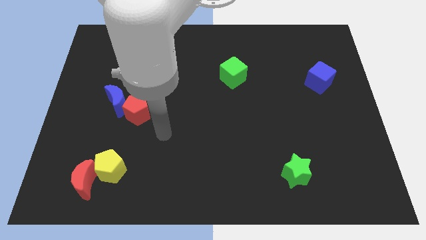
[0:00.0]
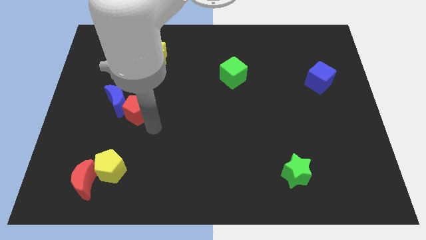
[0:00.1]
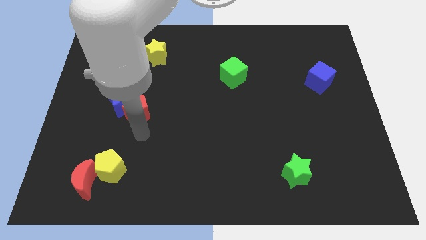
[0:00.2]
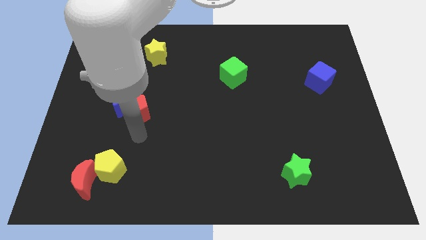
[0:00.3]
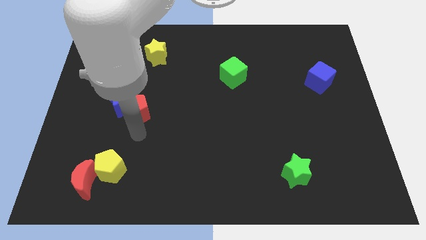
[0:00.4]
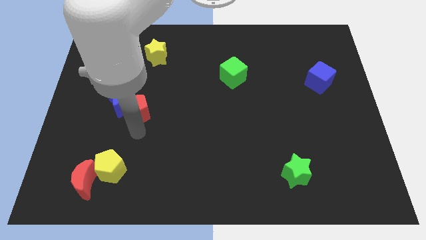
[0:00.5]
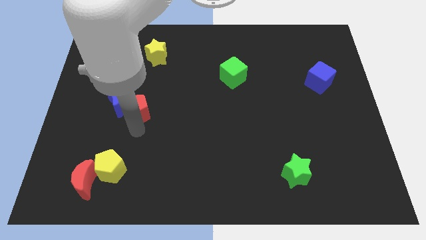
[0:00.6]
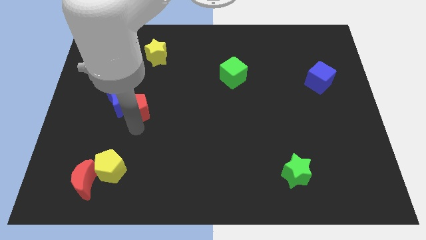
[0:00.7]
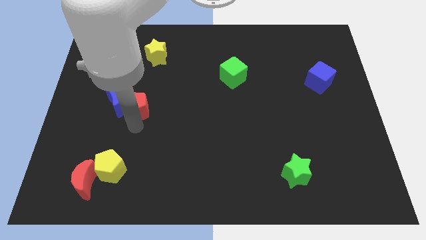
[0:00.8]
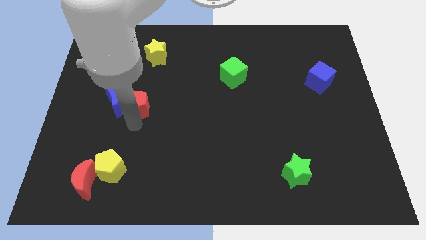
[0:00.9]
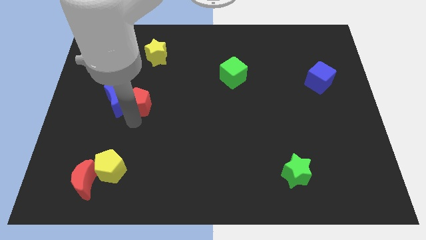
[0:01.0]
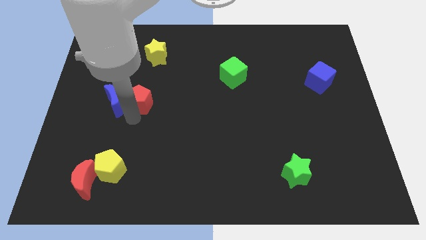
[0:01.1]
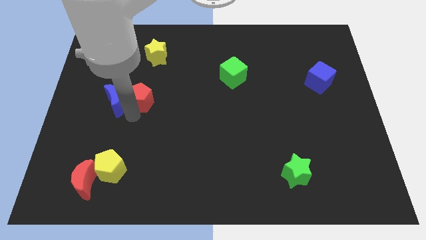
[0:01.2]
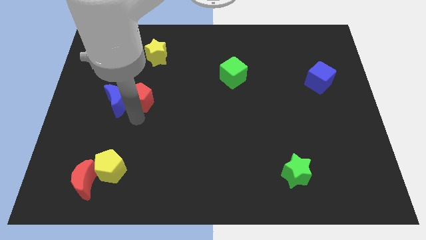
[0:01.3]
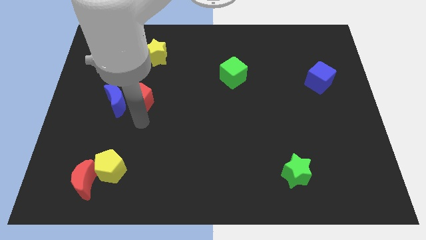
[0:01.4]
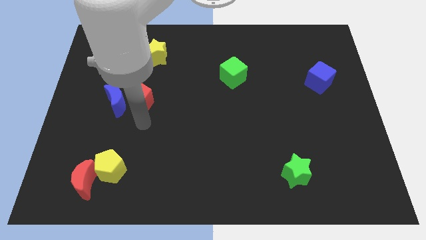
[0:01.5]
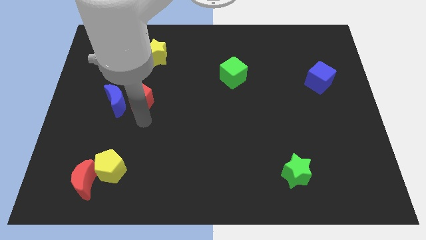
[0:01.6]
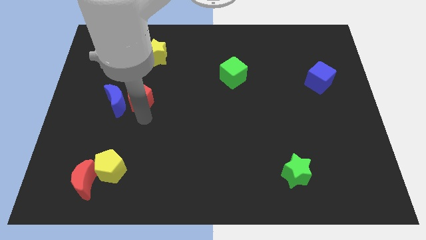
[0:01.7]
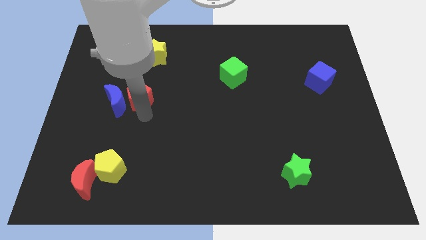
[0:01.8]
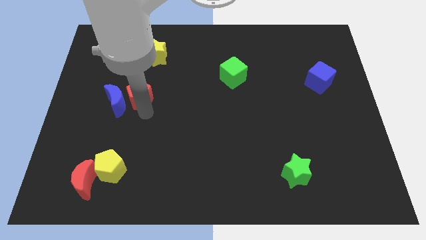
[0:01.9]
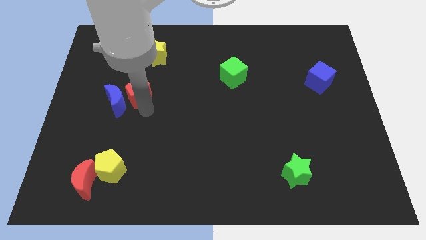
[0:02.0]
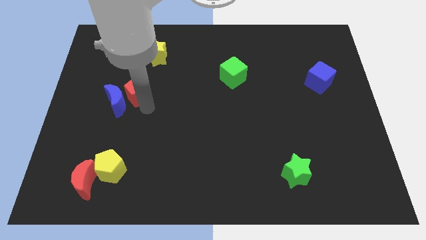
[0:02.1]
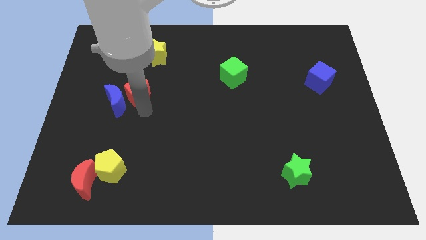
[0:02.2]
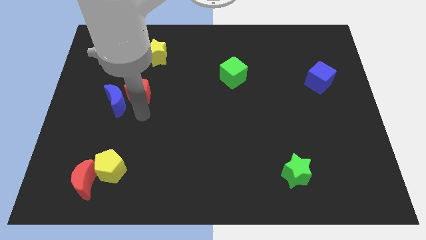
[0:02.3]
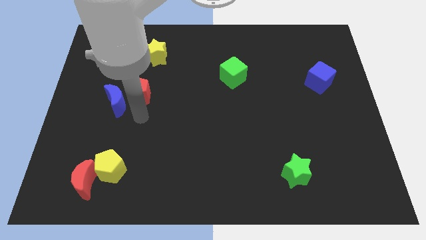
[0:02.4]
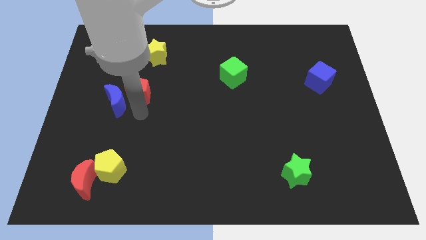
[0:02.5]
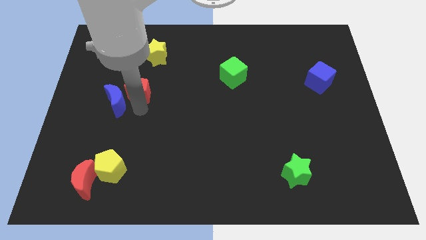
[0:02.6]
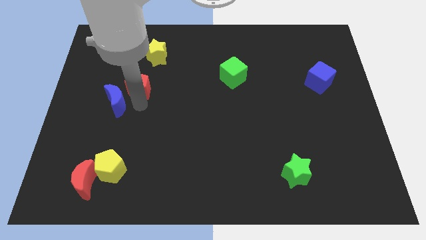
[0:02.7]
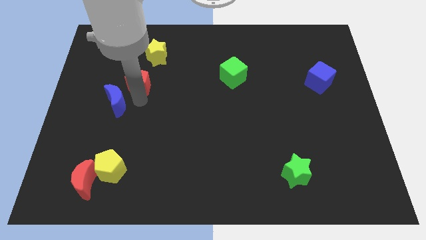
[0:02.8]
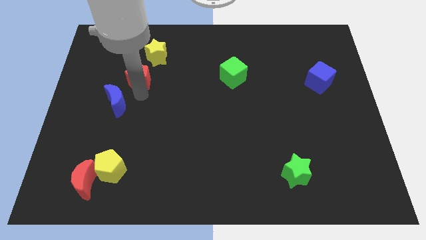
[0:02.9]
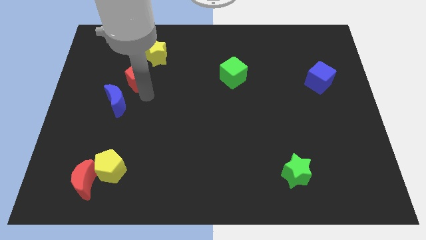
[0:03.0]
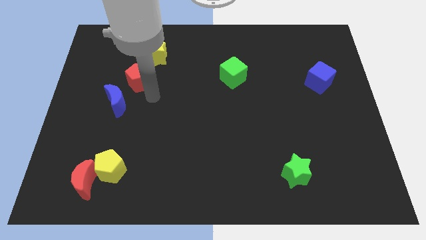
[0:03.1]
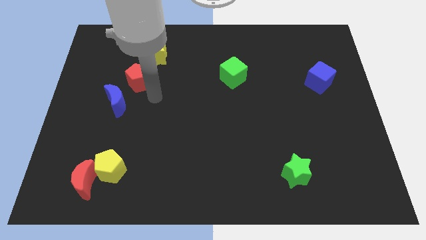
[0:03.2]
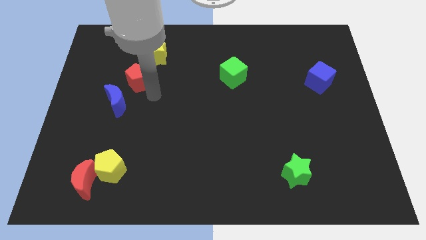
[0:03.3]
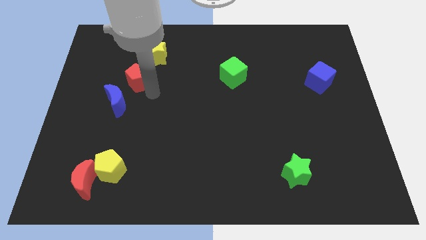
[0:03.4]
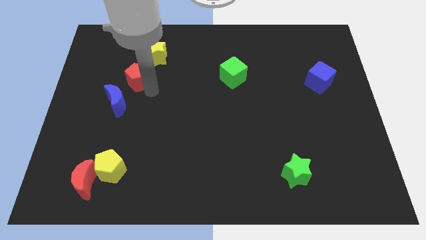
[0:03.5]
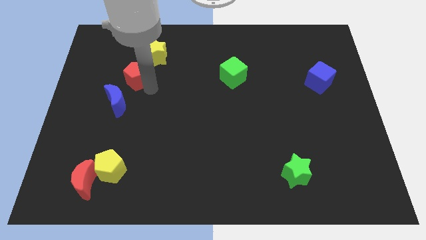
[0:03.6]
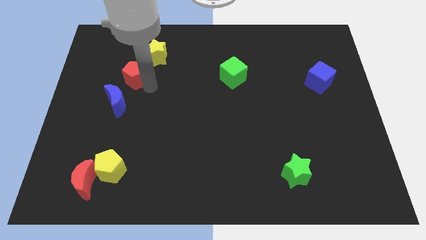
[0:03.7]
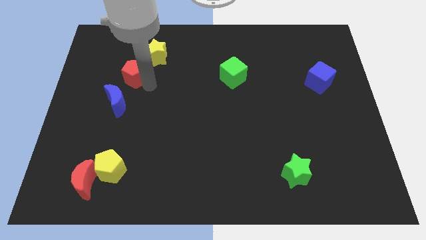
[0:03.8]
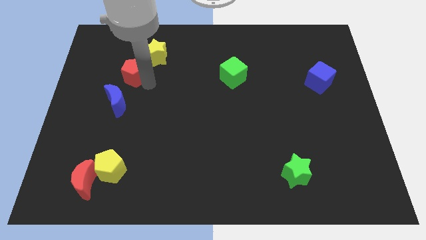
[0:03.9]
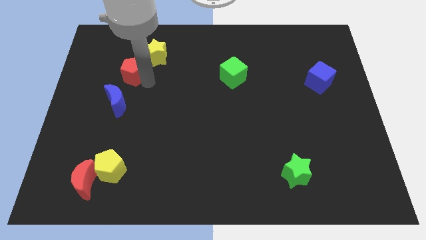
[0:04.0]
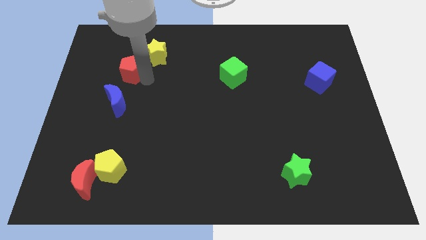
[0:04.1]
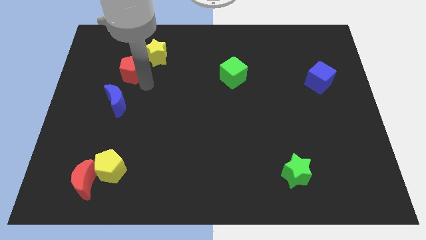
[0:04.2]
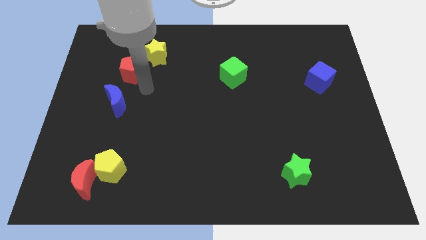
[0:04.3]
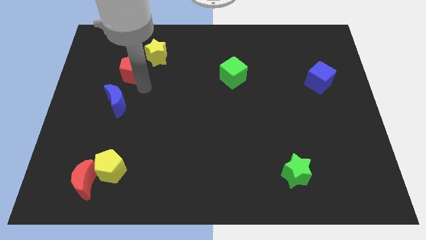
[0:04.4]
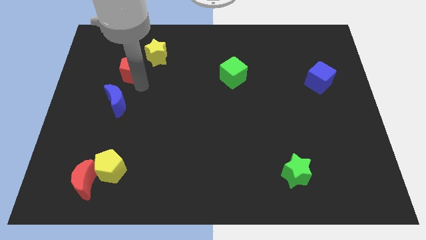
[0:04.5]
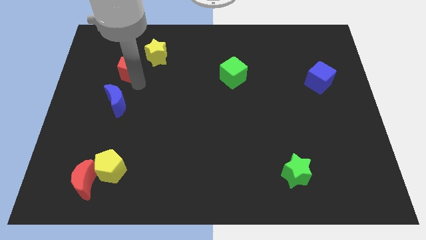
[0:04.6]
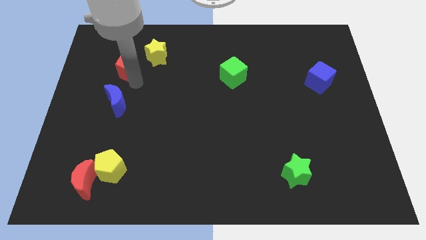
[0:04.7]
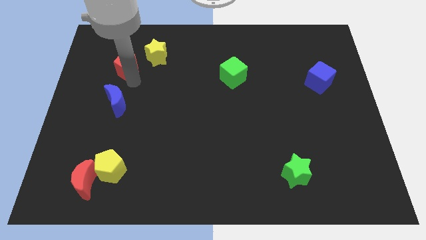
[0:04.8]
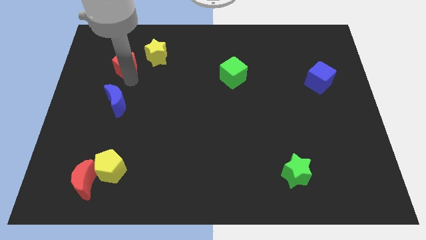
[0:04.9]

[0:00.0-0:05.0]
slide the red pentagon to the left of the yellow star

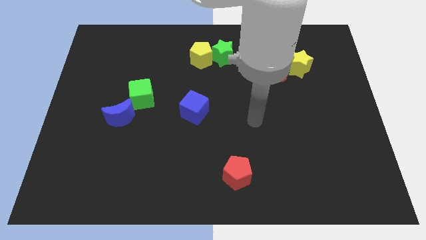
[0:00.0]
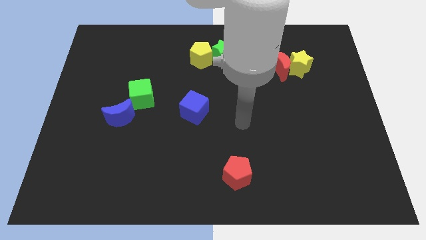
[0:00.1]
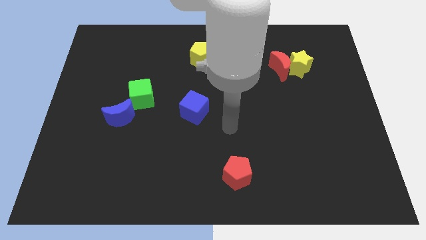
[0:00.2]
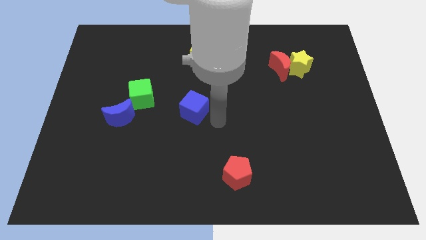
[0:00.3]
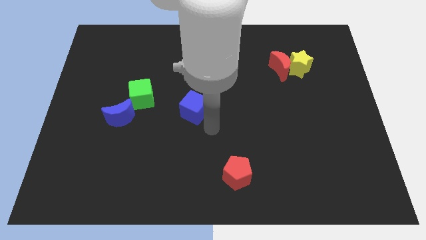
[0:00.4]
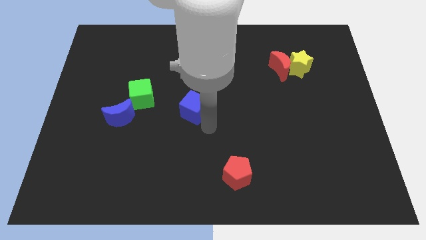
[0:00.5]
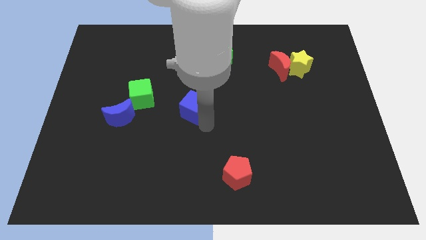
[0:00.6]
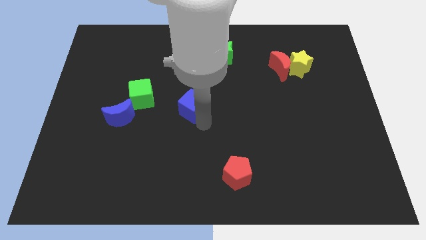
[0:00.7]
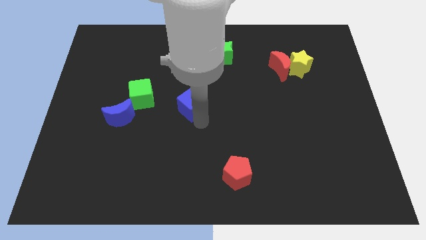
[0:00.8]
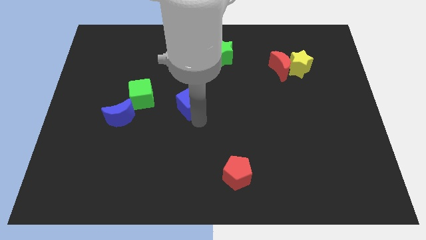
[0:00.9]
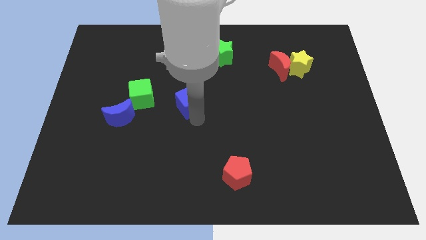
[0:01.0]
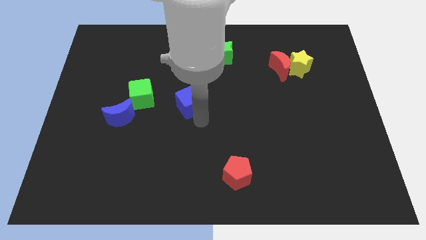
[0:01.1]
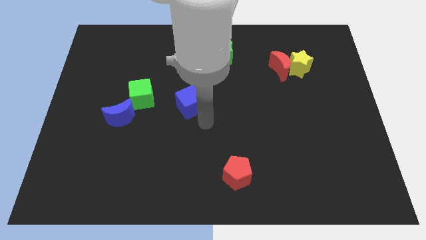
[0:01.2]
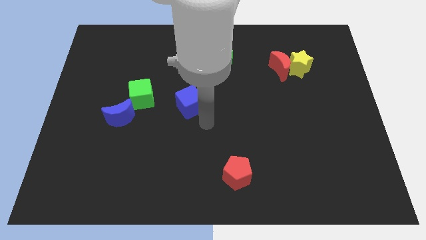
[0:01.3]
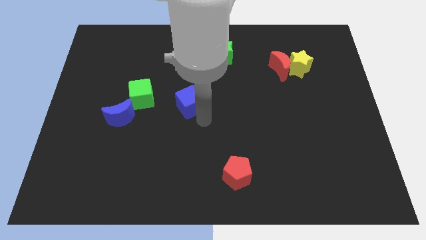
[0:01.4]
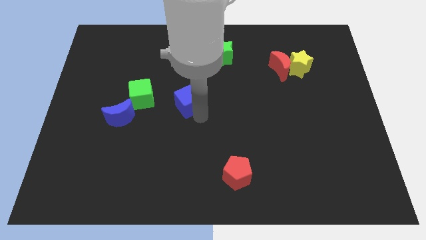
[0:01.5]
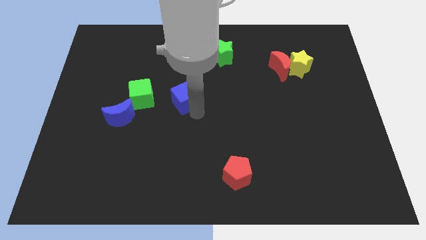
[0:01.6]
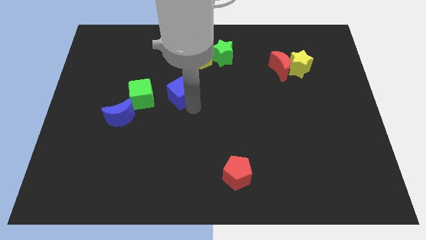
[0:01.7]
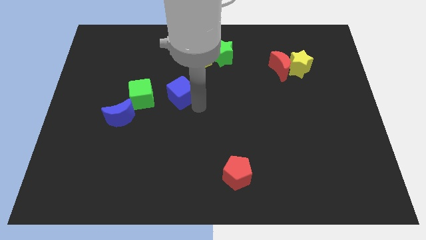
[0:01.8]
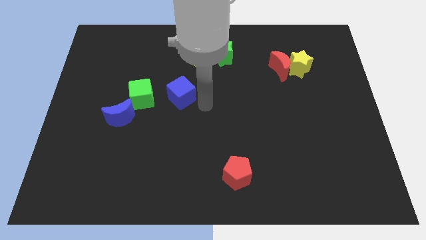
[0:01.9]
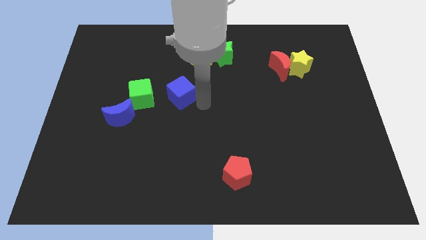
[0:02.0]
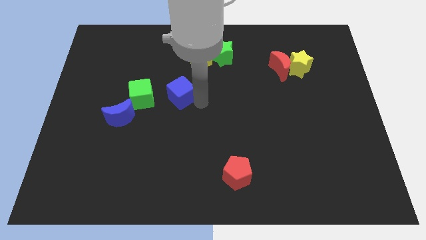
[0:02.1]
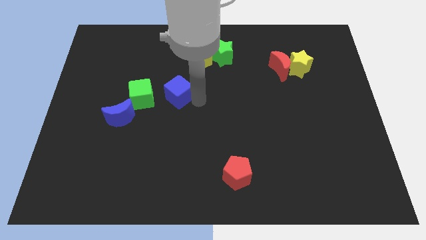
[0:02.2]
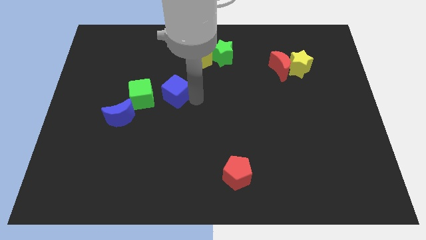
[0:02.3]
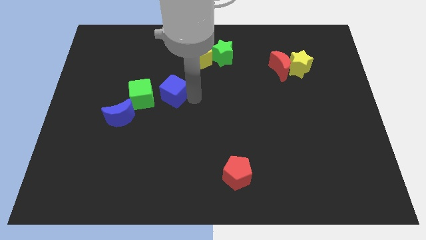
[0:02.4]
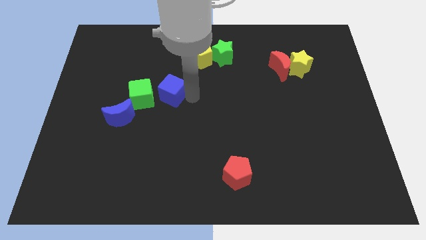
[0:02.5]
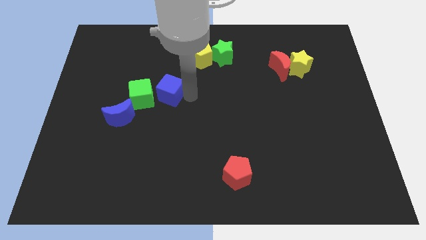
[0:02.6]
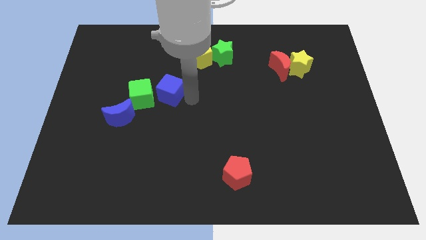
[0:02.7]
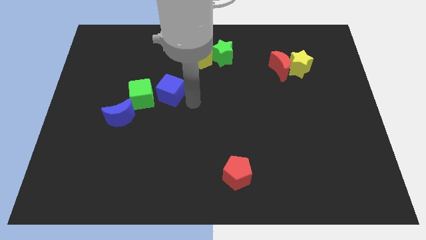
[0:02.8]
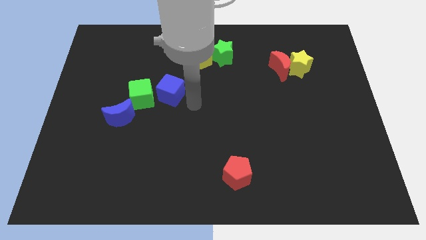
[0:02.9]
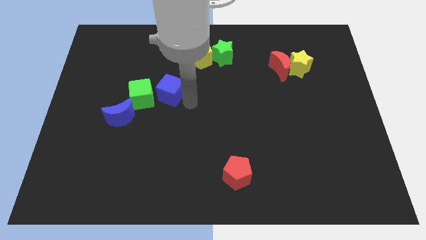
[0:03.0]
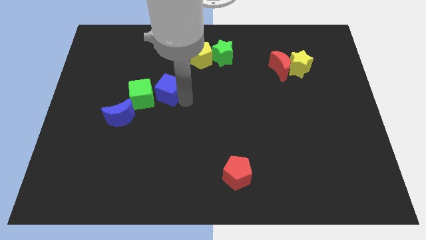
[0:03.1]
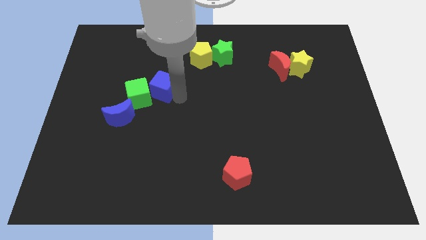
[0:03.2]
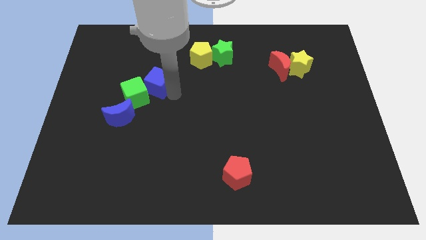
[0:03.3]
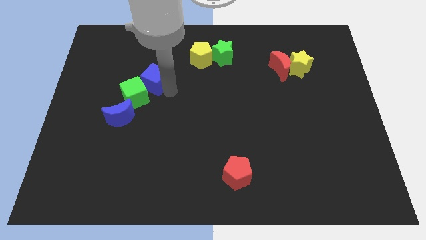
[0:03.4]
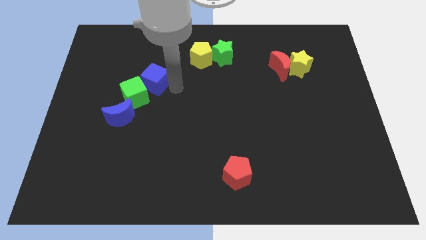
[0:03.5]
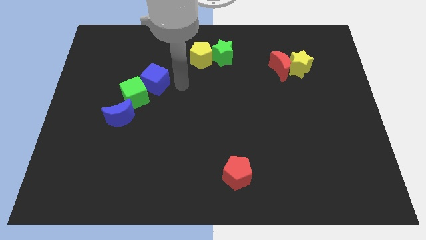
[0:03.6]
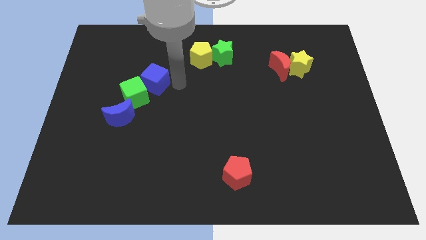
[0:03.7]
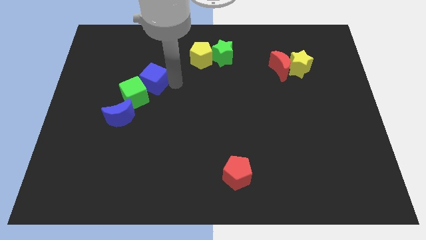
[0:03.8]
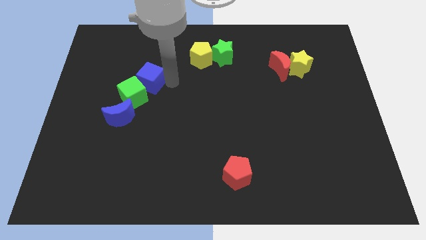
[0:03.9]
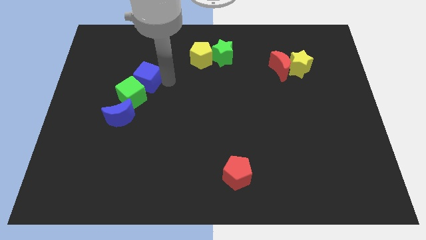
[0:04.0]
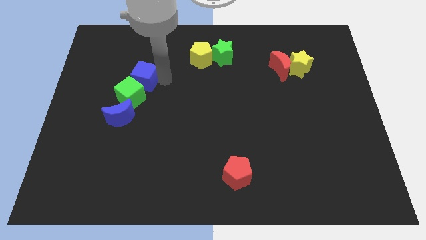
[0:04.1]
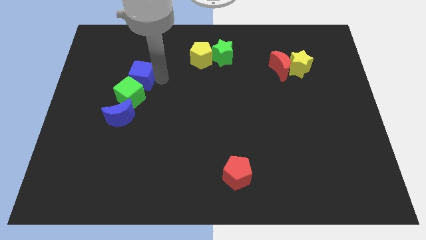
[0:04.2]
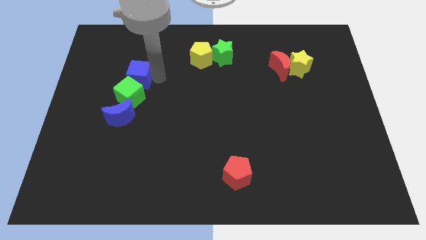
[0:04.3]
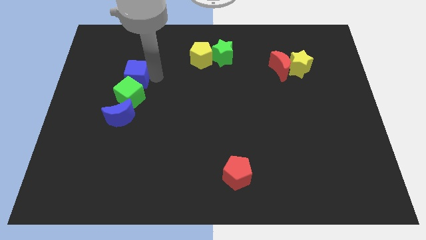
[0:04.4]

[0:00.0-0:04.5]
push the blue cube diagonally up and to the left of the green cube
